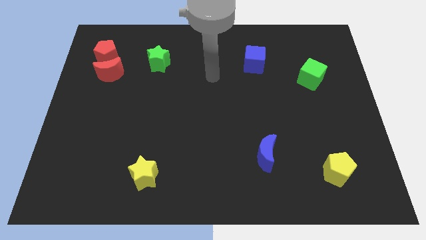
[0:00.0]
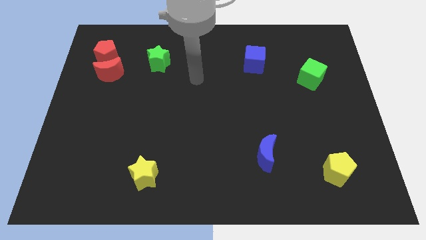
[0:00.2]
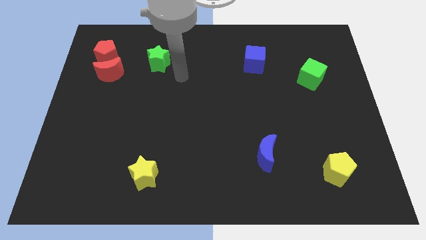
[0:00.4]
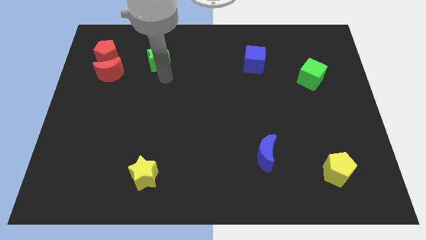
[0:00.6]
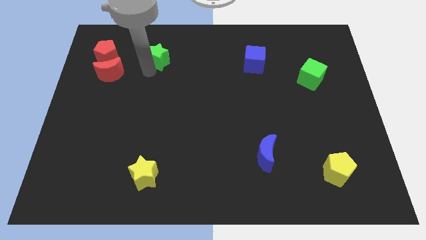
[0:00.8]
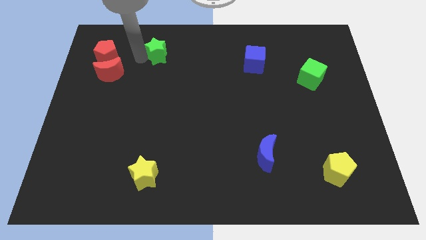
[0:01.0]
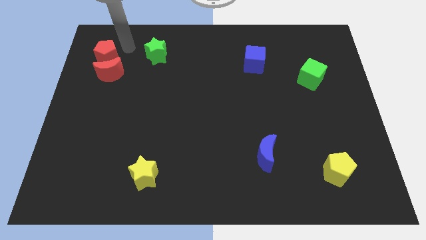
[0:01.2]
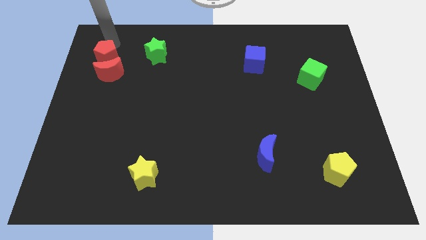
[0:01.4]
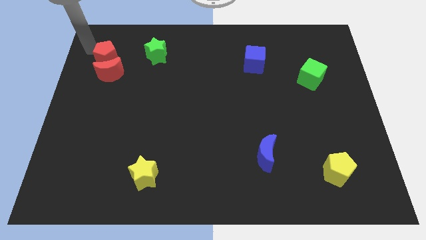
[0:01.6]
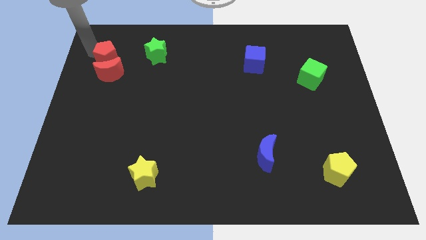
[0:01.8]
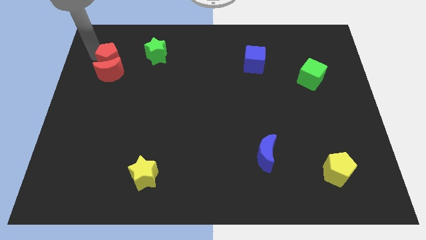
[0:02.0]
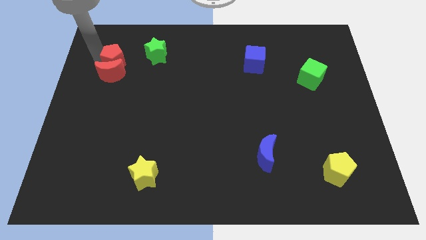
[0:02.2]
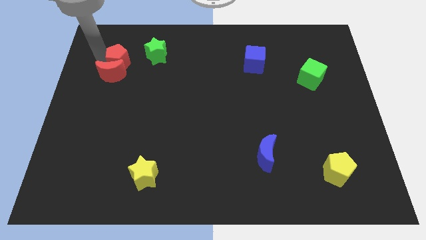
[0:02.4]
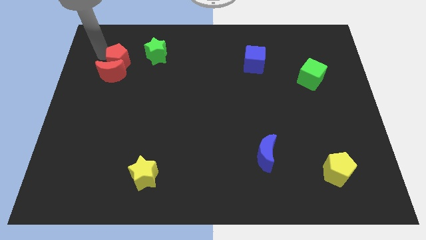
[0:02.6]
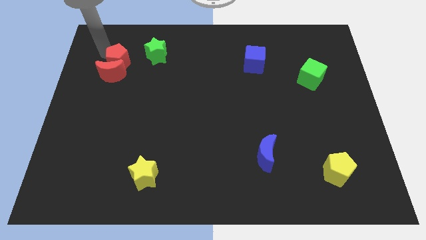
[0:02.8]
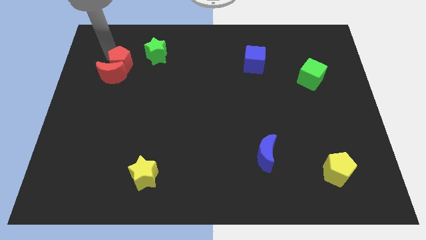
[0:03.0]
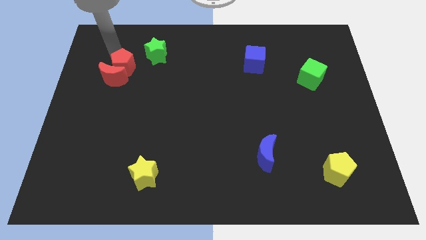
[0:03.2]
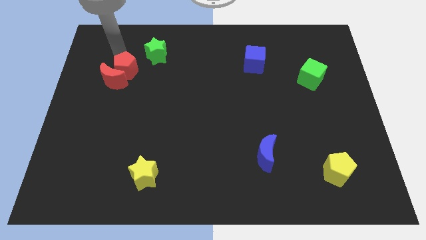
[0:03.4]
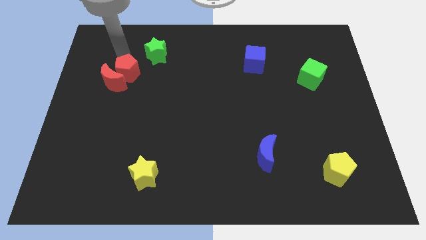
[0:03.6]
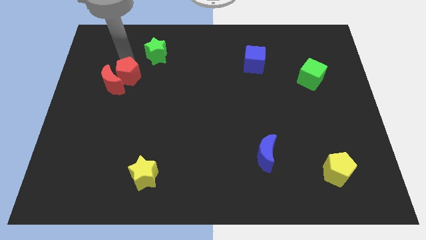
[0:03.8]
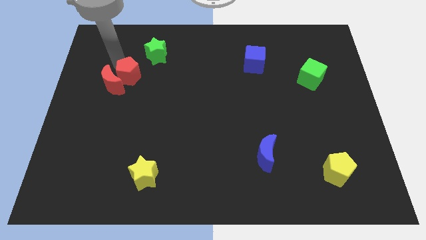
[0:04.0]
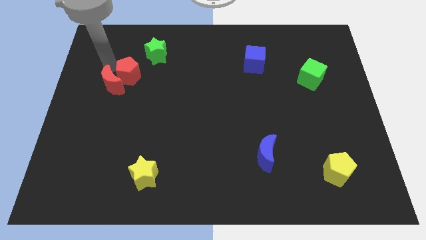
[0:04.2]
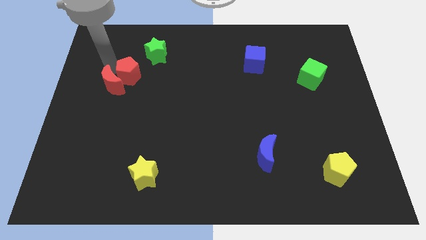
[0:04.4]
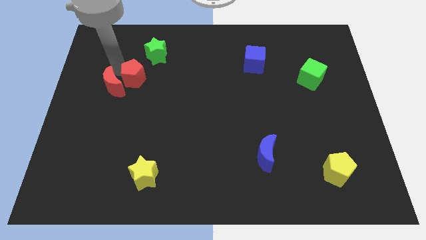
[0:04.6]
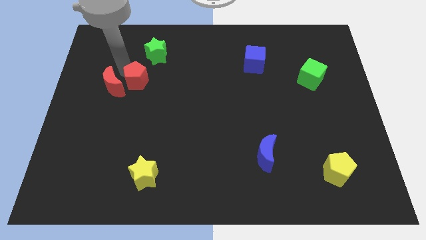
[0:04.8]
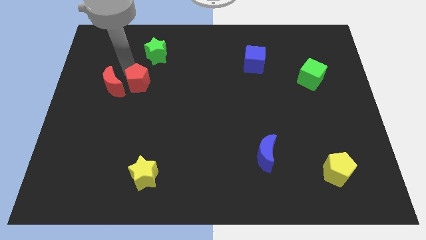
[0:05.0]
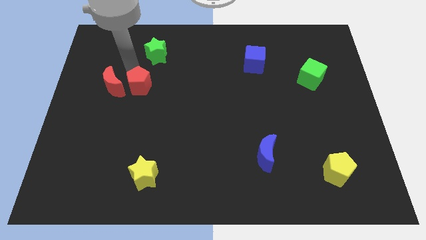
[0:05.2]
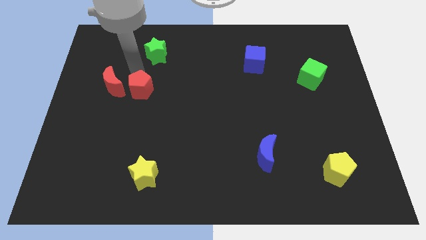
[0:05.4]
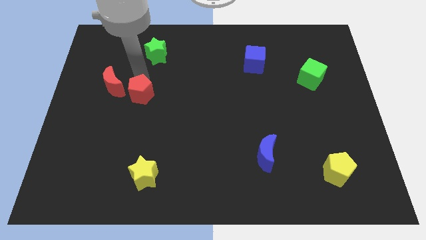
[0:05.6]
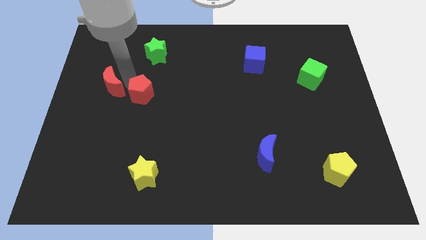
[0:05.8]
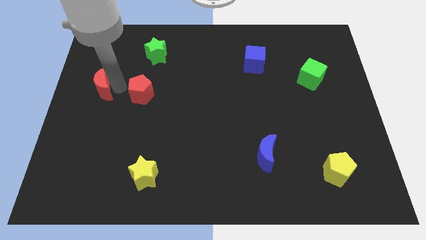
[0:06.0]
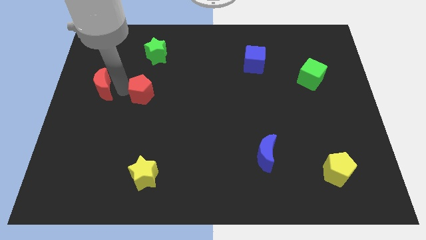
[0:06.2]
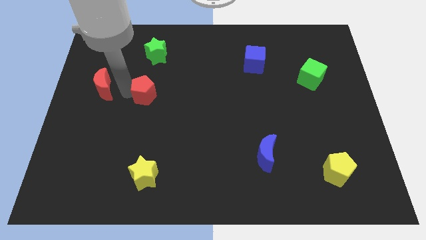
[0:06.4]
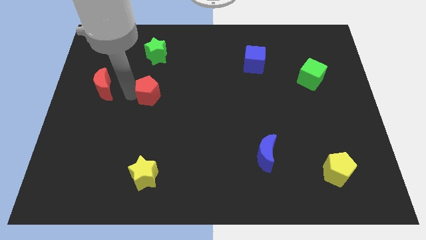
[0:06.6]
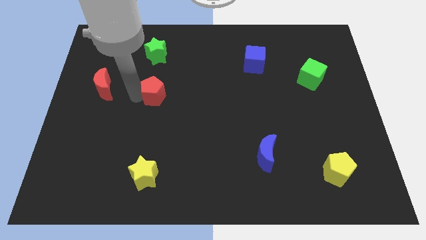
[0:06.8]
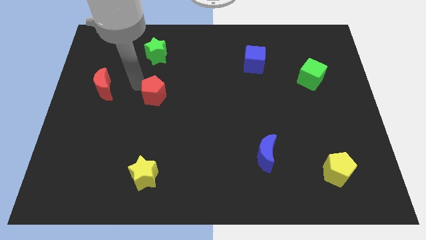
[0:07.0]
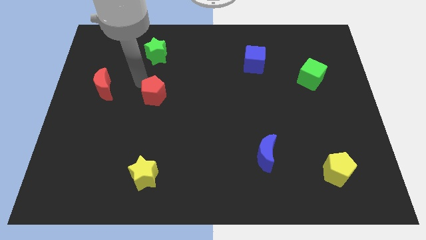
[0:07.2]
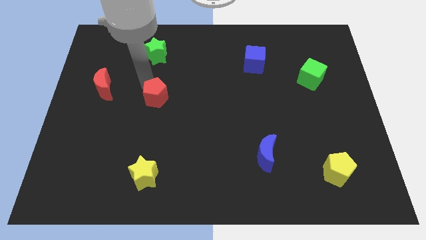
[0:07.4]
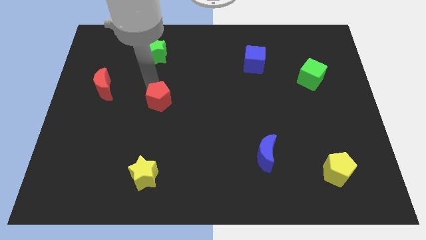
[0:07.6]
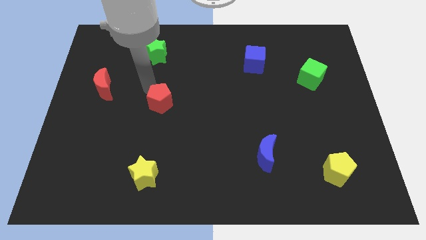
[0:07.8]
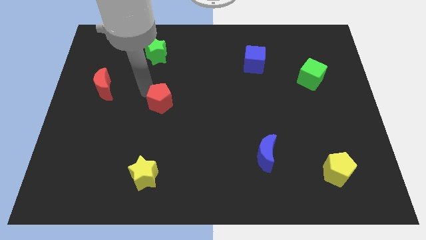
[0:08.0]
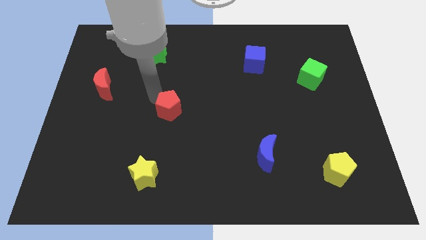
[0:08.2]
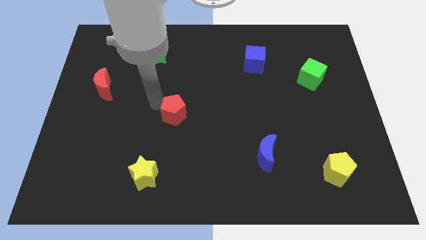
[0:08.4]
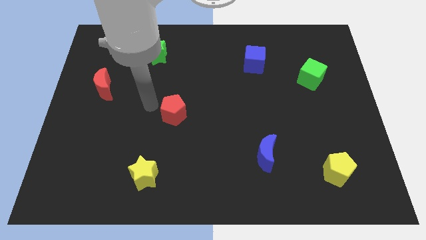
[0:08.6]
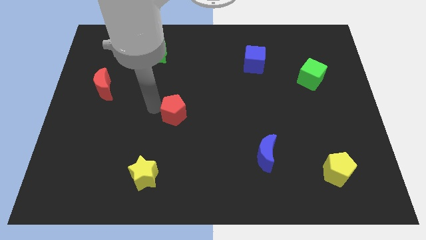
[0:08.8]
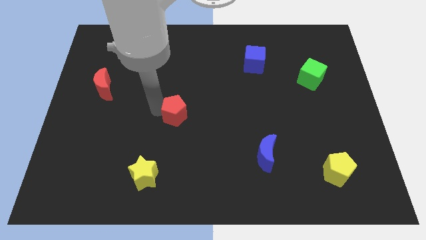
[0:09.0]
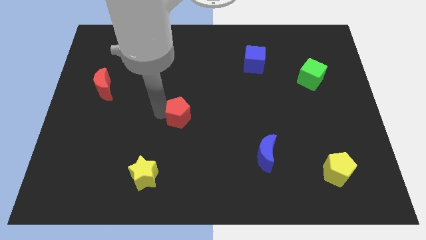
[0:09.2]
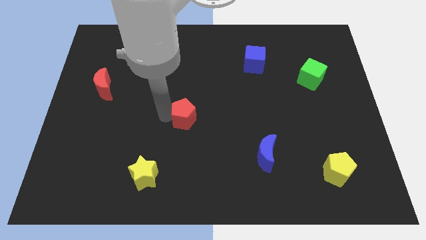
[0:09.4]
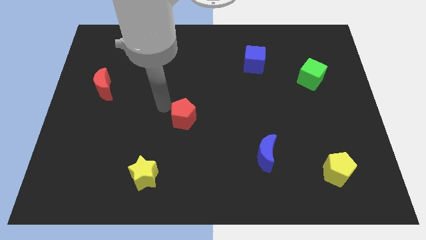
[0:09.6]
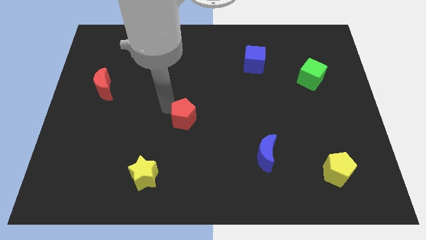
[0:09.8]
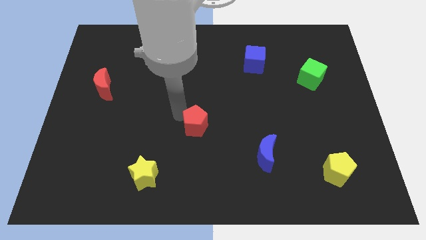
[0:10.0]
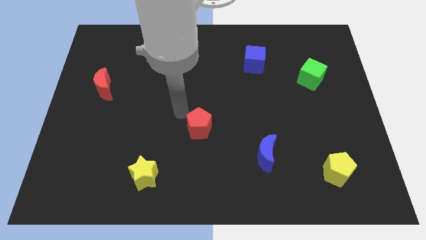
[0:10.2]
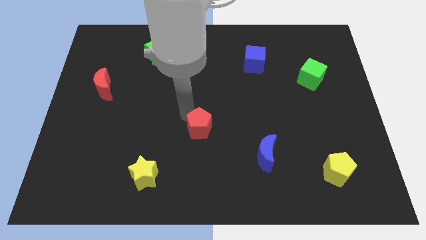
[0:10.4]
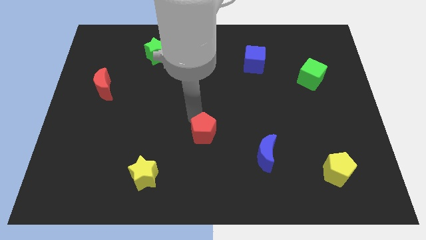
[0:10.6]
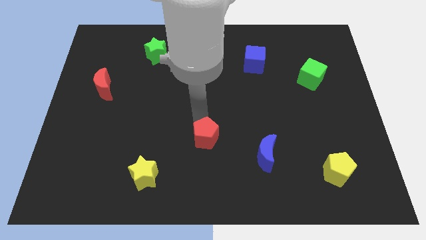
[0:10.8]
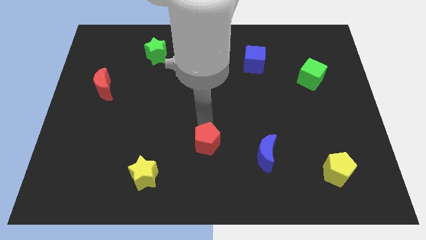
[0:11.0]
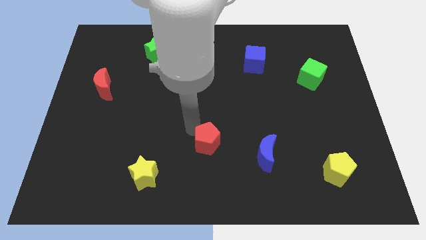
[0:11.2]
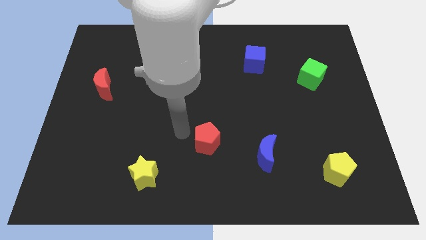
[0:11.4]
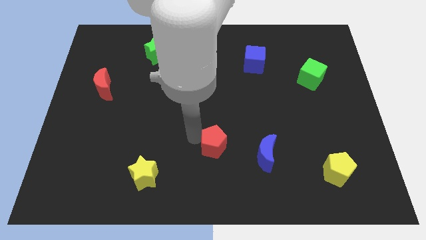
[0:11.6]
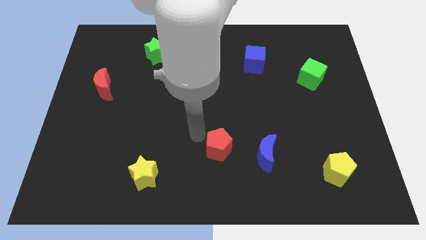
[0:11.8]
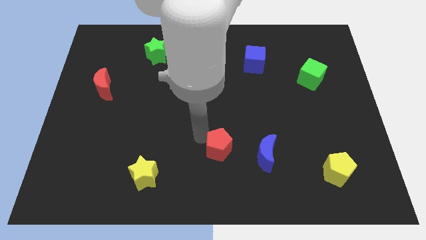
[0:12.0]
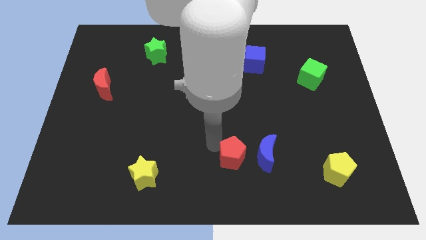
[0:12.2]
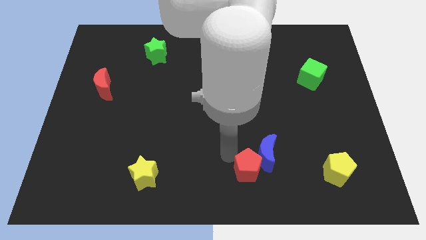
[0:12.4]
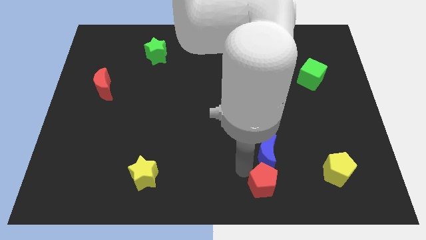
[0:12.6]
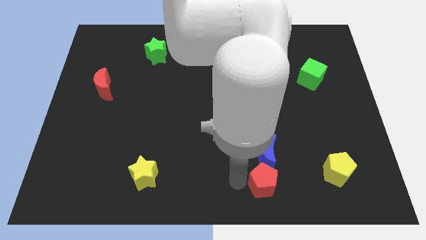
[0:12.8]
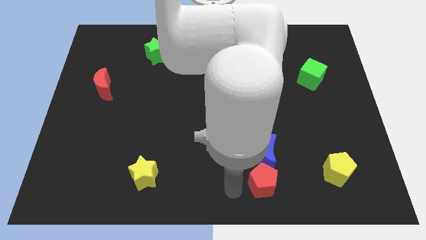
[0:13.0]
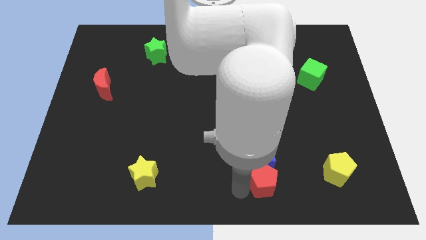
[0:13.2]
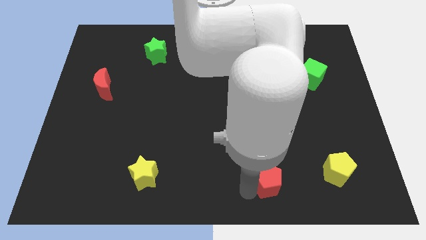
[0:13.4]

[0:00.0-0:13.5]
put the red pentagon diagonally down and to the right of the blue moon

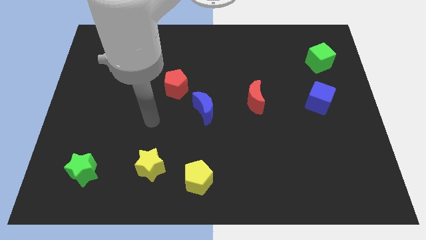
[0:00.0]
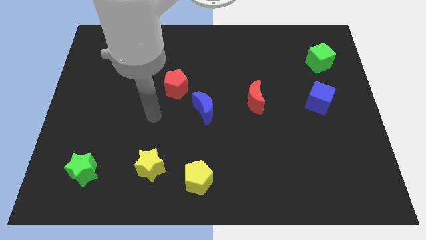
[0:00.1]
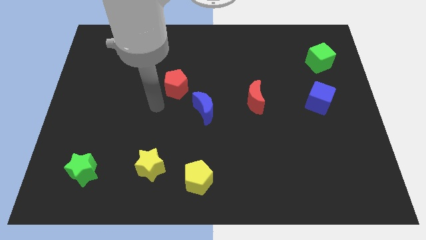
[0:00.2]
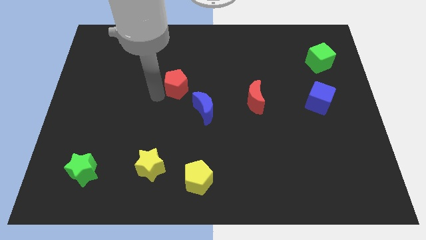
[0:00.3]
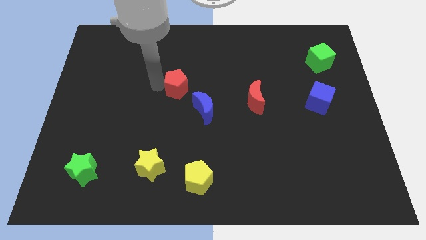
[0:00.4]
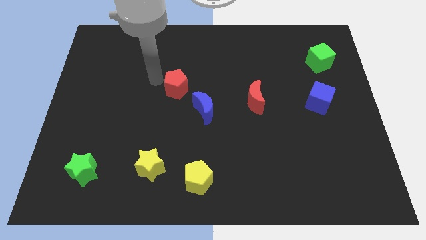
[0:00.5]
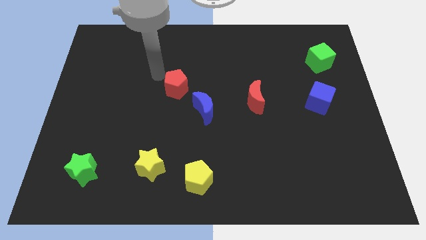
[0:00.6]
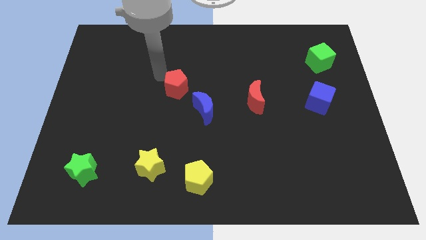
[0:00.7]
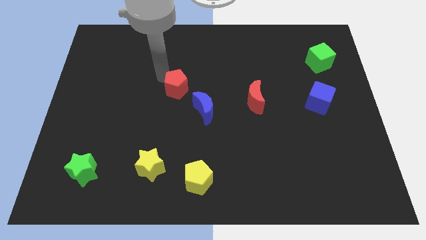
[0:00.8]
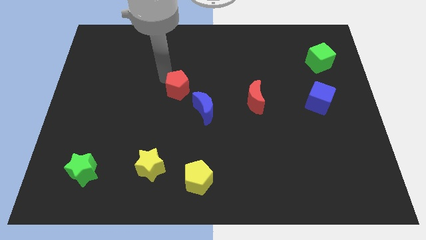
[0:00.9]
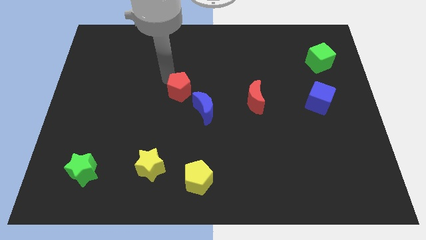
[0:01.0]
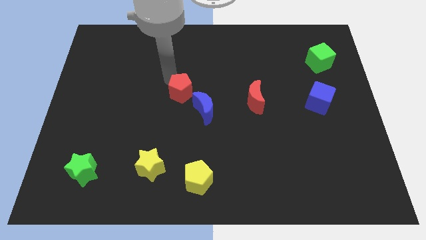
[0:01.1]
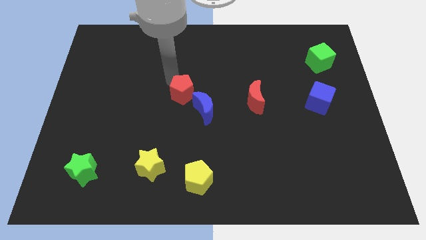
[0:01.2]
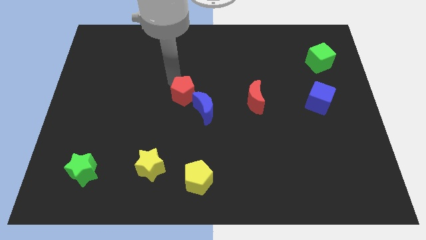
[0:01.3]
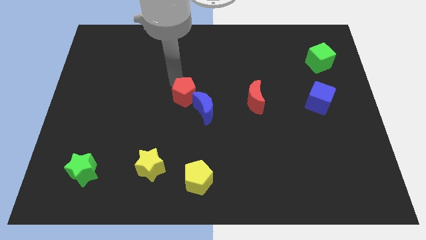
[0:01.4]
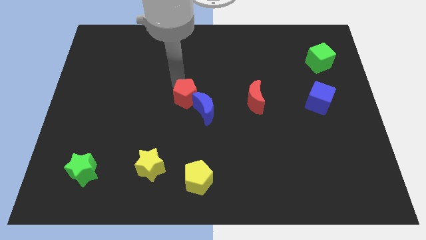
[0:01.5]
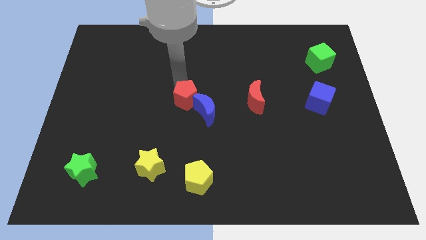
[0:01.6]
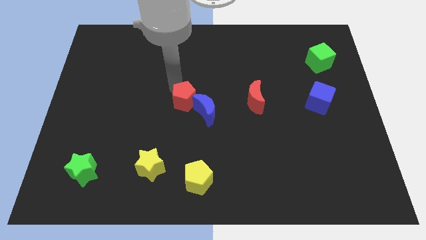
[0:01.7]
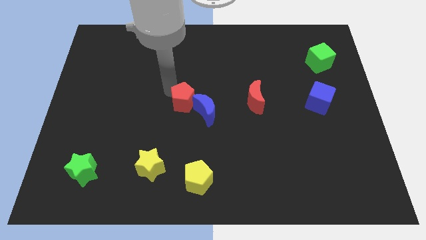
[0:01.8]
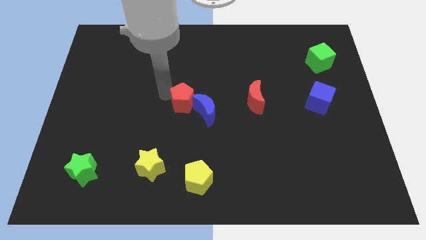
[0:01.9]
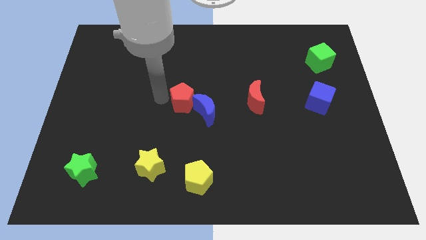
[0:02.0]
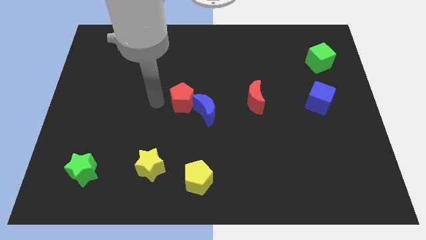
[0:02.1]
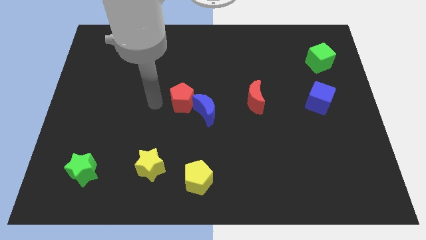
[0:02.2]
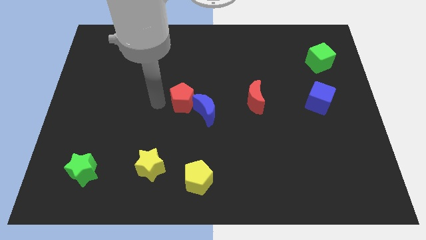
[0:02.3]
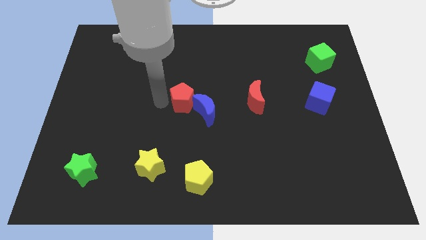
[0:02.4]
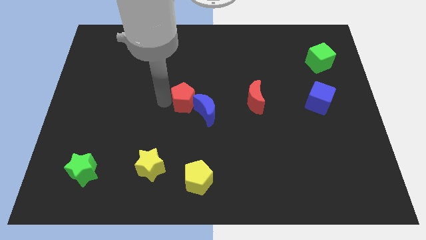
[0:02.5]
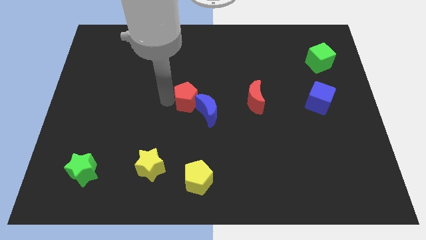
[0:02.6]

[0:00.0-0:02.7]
push the red pentagon to the left of the red moon
